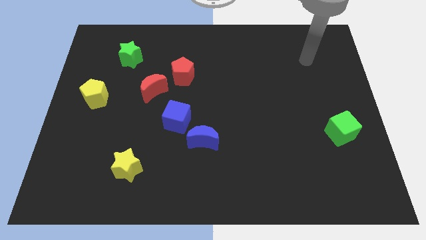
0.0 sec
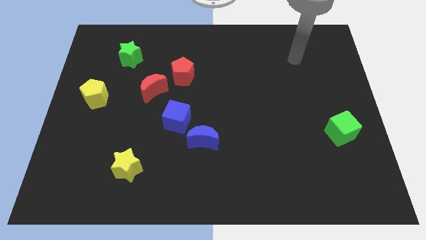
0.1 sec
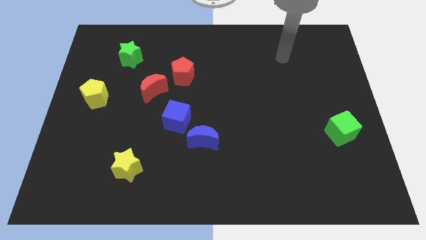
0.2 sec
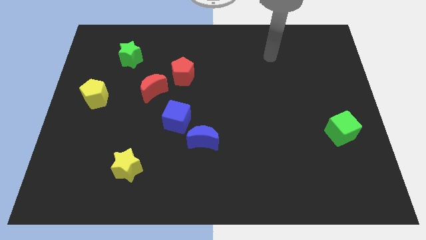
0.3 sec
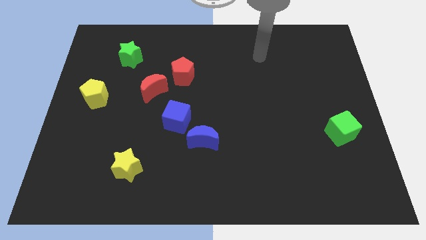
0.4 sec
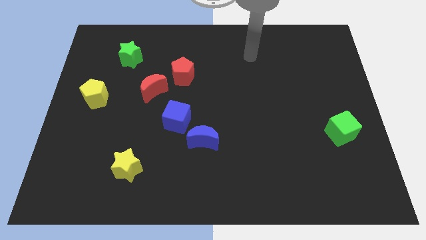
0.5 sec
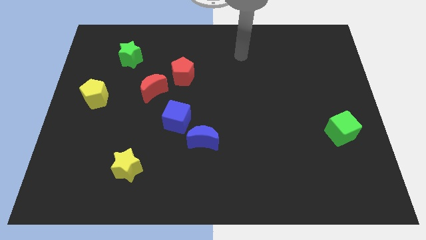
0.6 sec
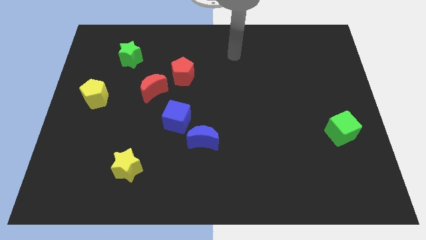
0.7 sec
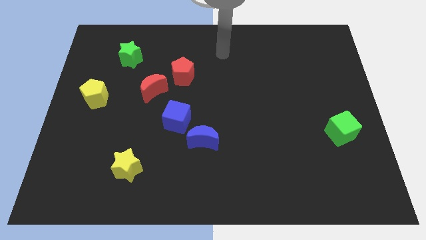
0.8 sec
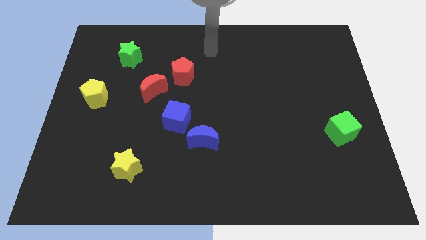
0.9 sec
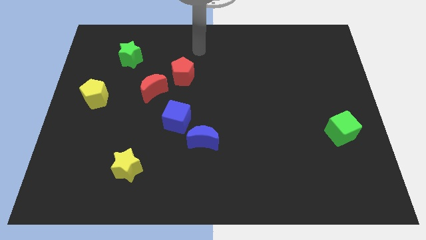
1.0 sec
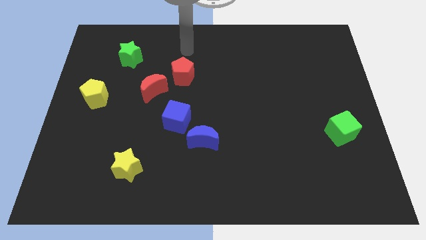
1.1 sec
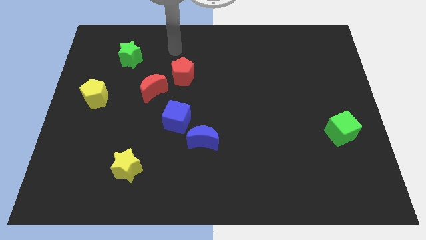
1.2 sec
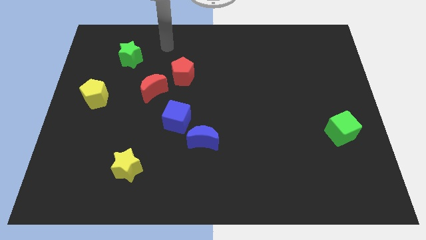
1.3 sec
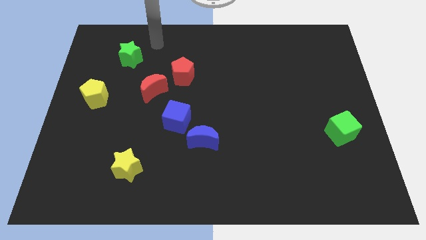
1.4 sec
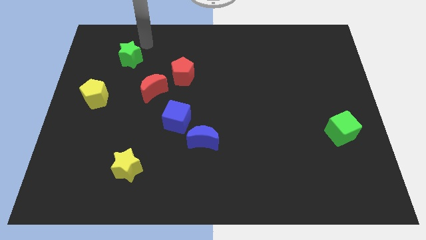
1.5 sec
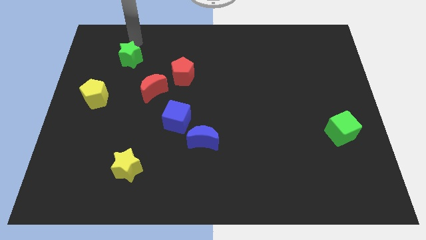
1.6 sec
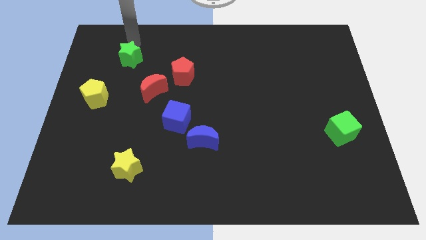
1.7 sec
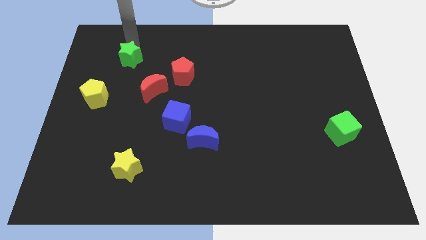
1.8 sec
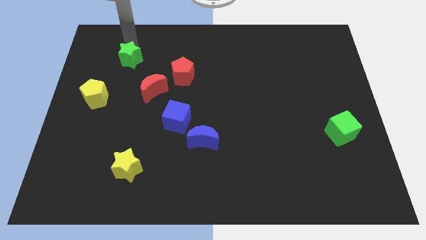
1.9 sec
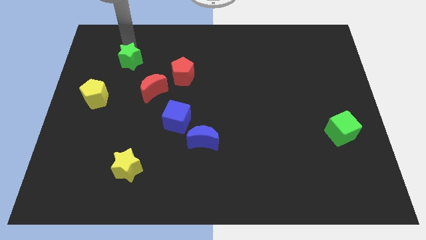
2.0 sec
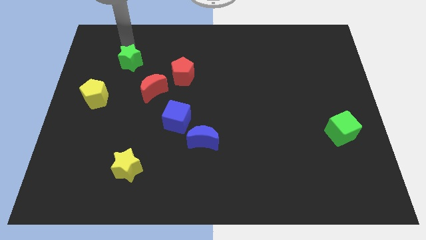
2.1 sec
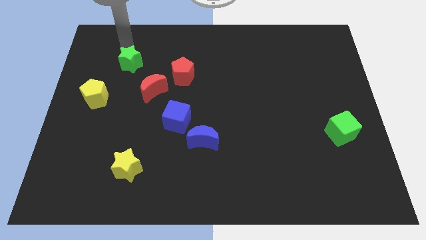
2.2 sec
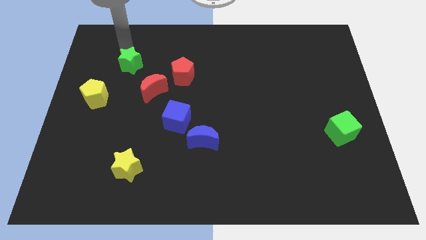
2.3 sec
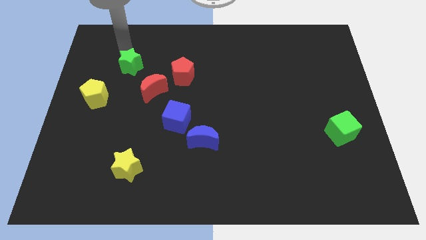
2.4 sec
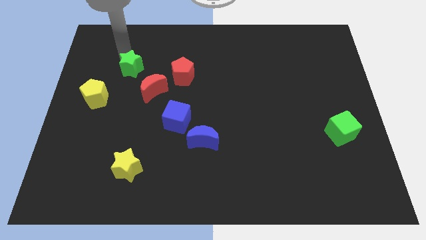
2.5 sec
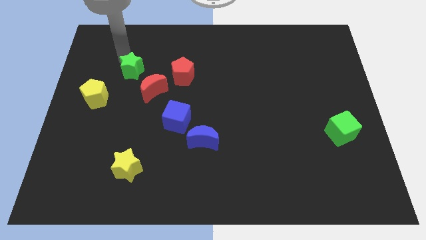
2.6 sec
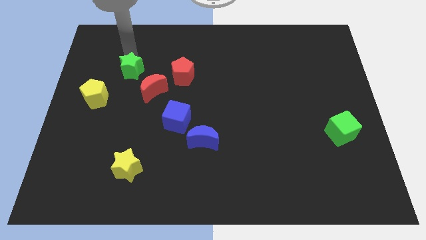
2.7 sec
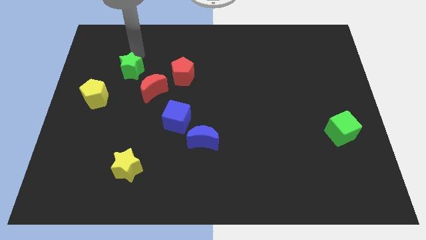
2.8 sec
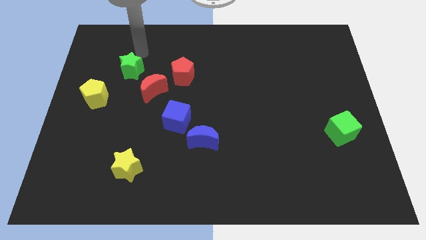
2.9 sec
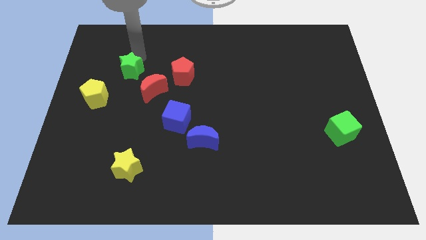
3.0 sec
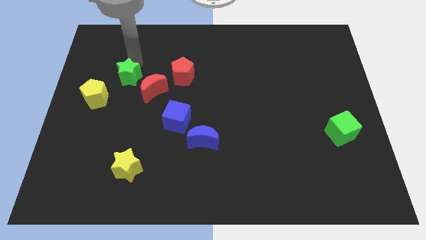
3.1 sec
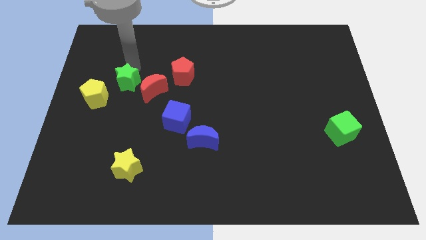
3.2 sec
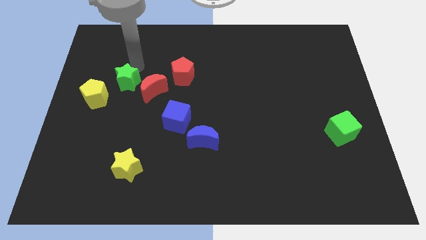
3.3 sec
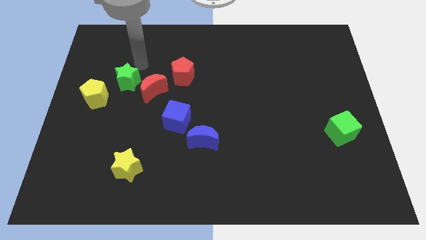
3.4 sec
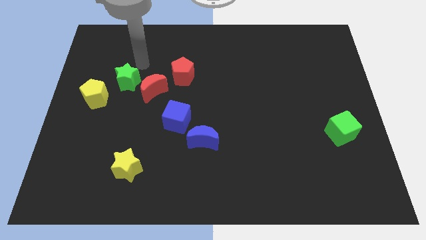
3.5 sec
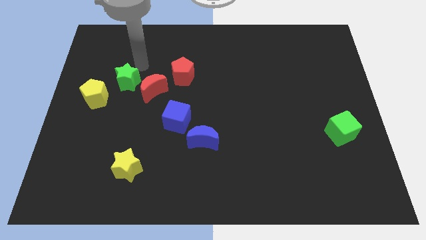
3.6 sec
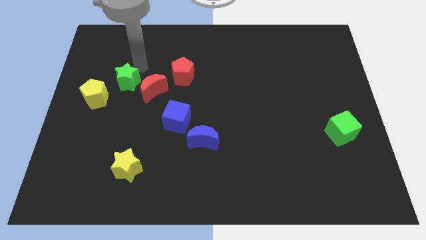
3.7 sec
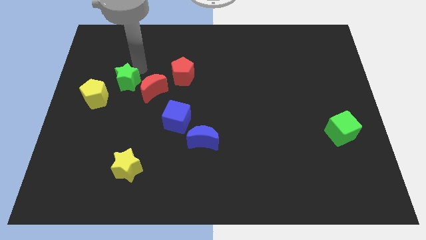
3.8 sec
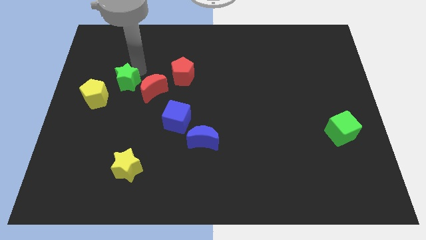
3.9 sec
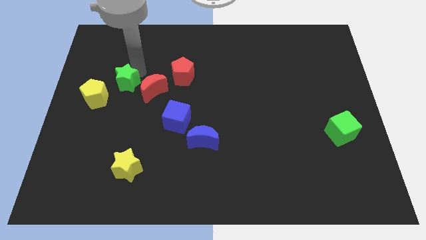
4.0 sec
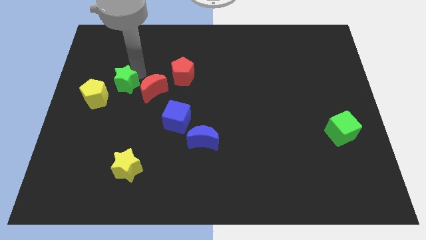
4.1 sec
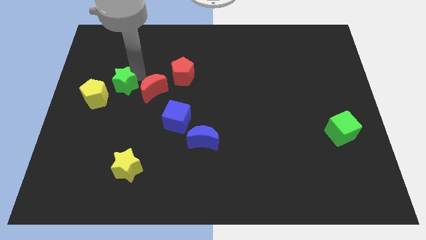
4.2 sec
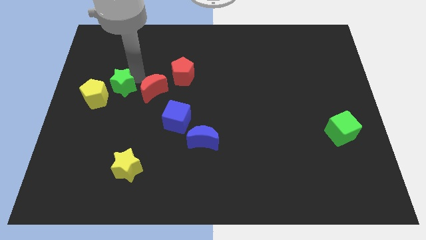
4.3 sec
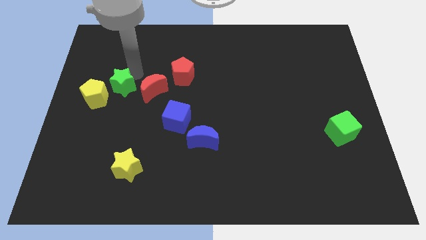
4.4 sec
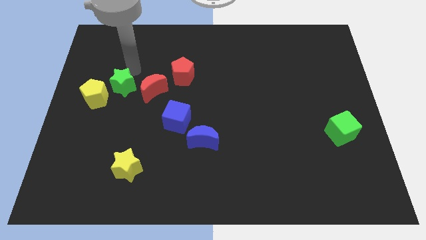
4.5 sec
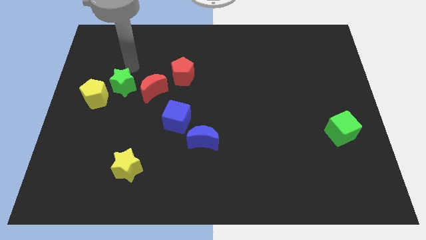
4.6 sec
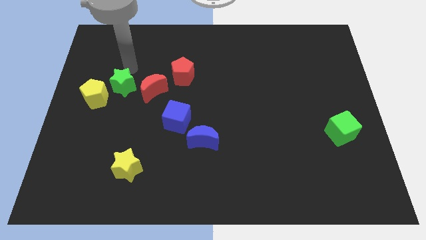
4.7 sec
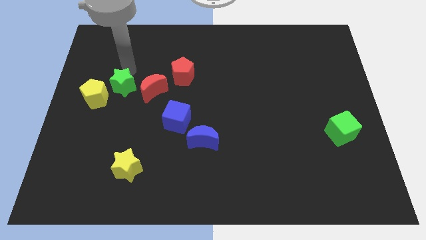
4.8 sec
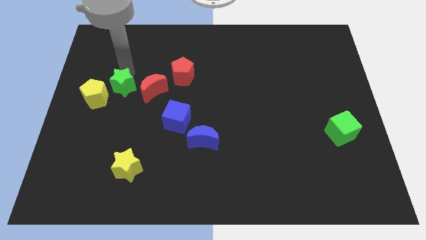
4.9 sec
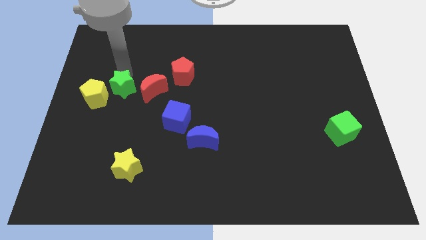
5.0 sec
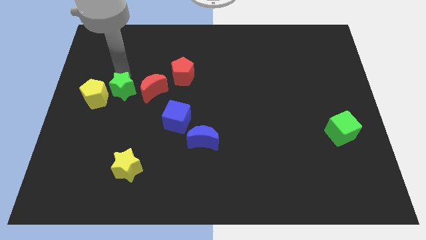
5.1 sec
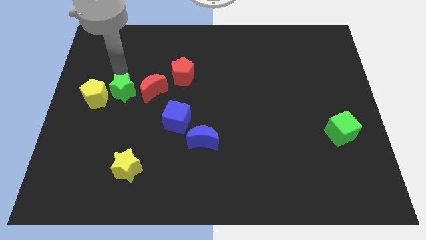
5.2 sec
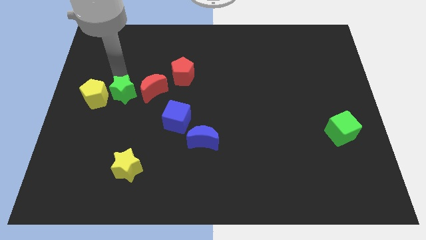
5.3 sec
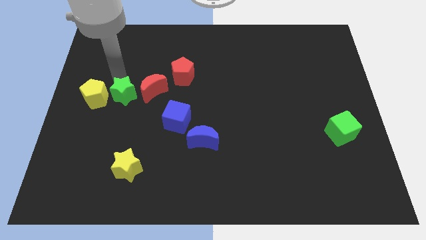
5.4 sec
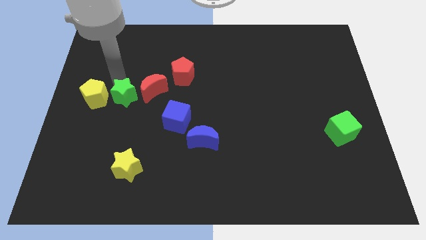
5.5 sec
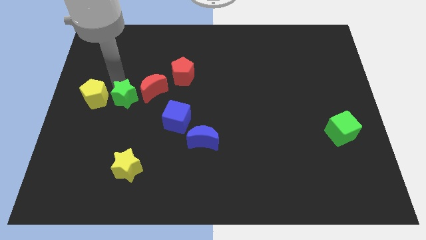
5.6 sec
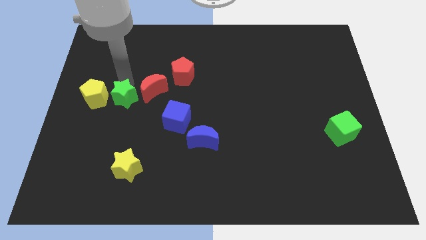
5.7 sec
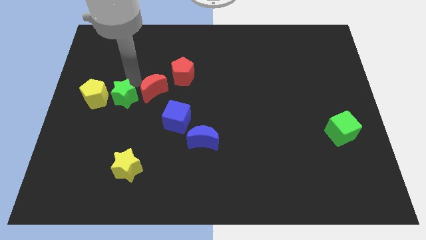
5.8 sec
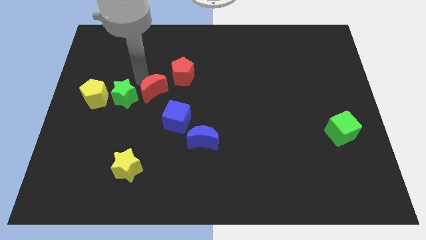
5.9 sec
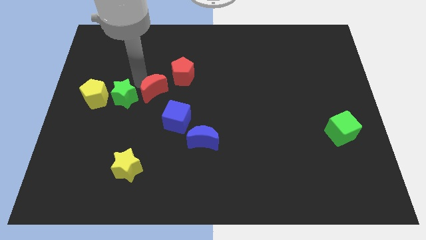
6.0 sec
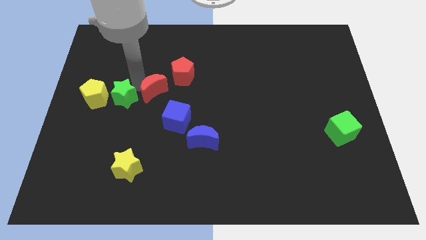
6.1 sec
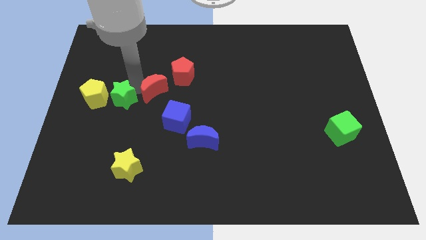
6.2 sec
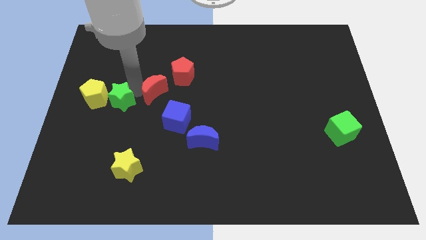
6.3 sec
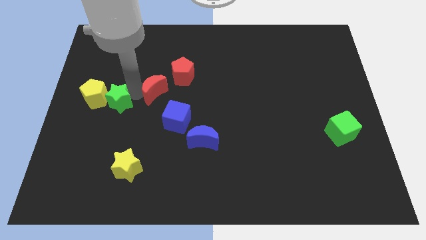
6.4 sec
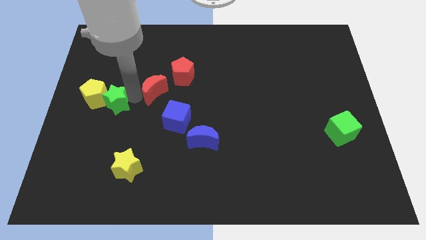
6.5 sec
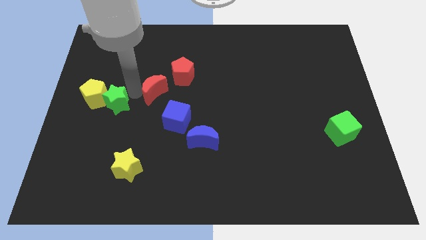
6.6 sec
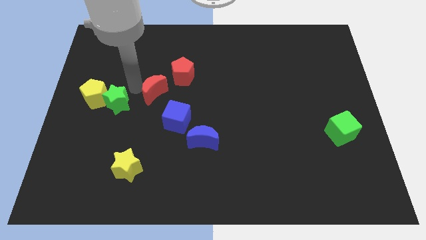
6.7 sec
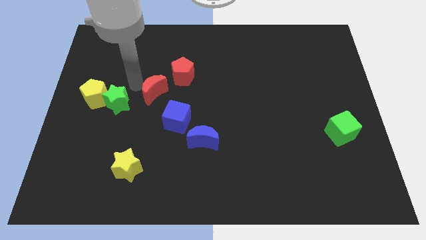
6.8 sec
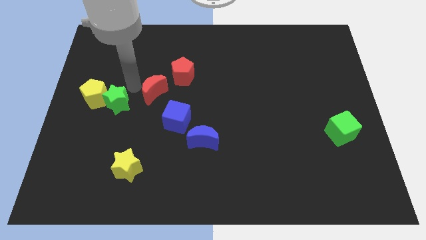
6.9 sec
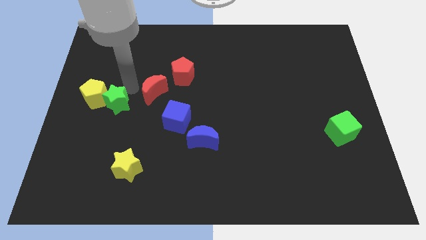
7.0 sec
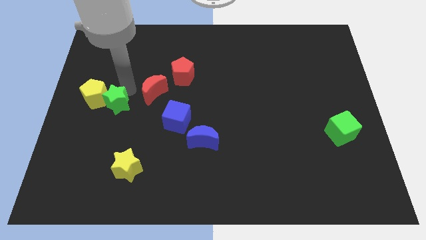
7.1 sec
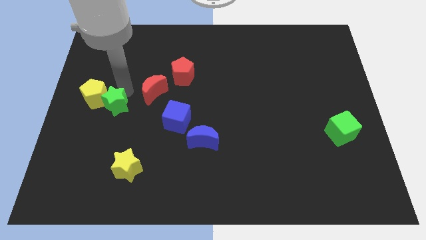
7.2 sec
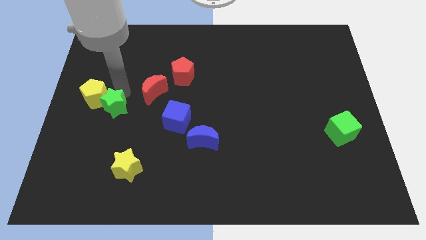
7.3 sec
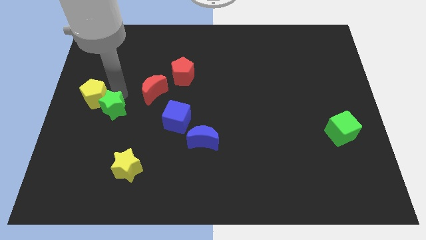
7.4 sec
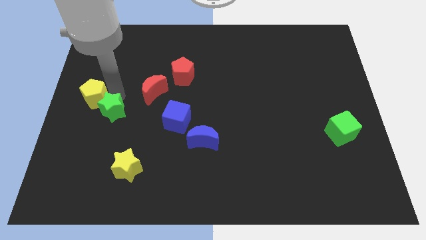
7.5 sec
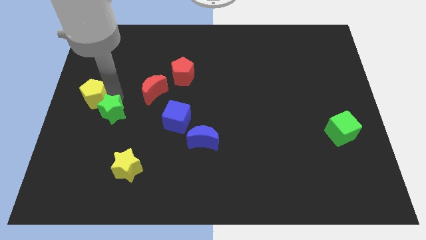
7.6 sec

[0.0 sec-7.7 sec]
slide the green star below the yellow pentagon
